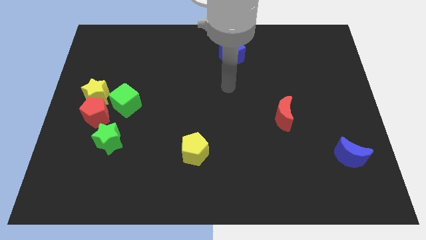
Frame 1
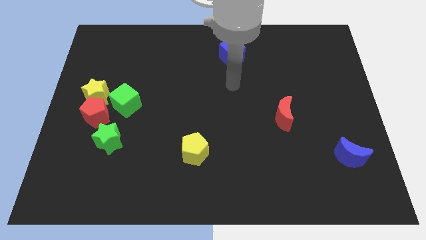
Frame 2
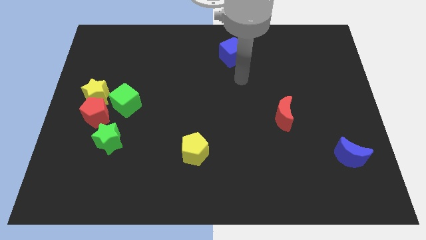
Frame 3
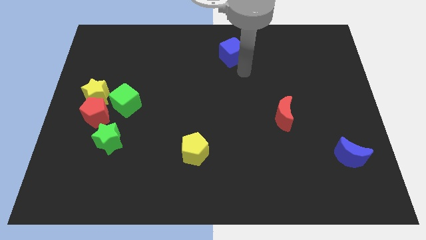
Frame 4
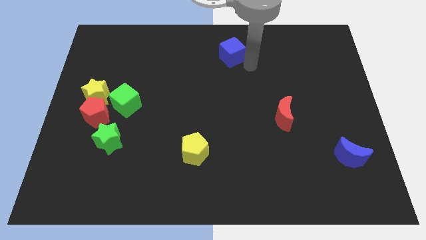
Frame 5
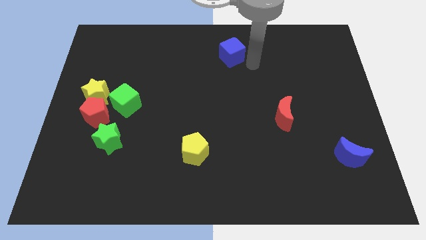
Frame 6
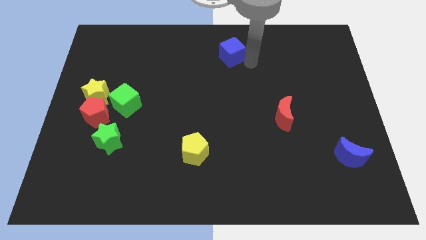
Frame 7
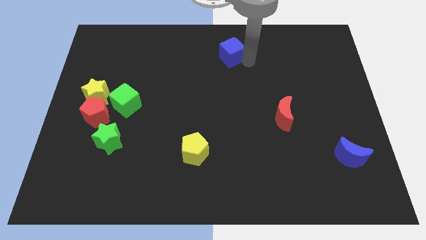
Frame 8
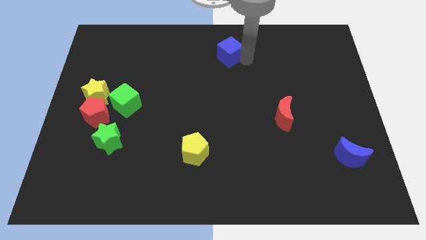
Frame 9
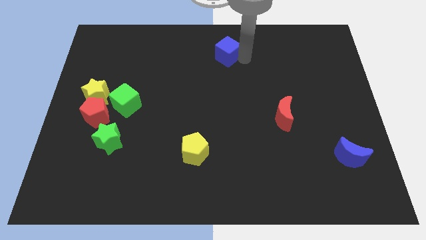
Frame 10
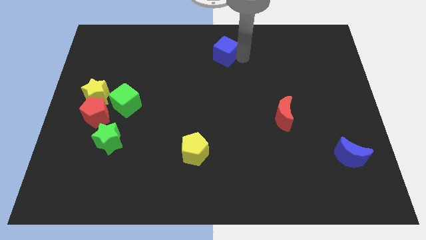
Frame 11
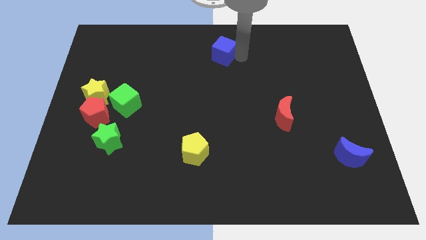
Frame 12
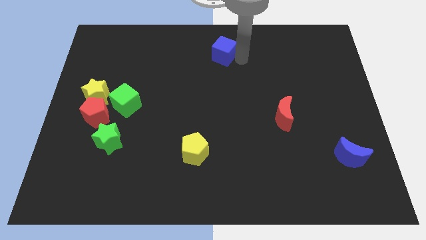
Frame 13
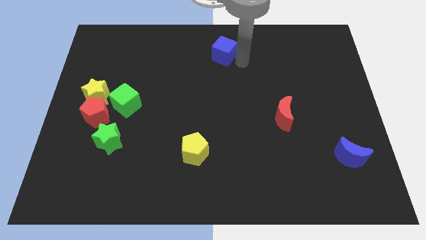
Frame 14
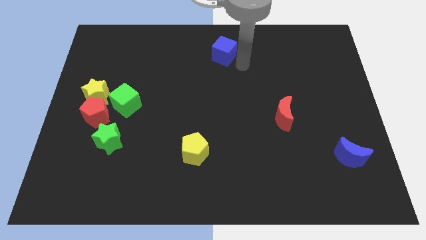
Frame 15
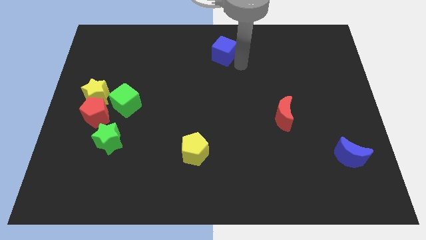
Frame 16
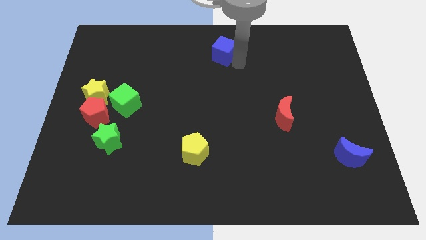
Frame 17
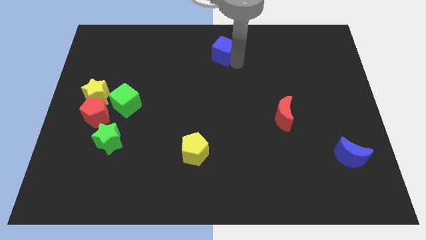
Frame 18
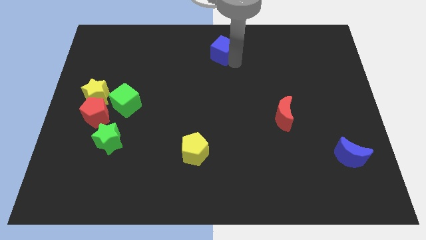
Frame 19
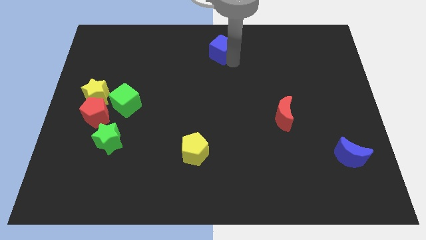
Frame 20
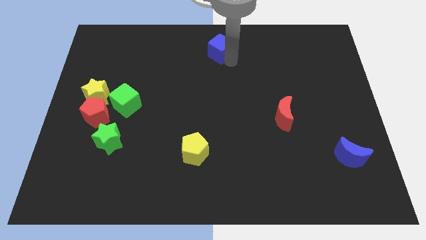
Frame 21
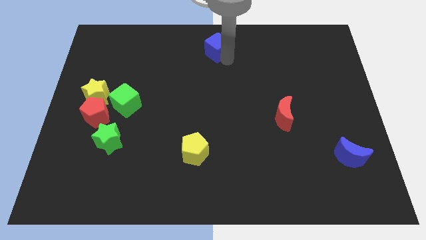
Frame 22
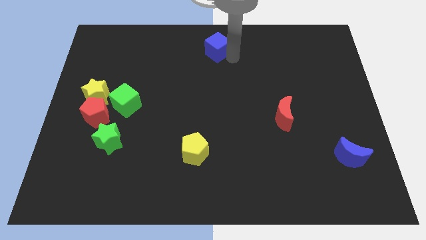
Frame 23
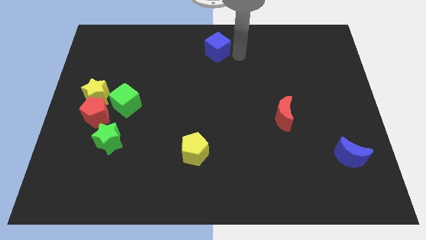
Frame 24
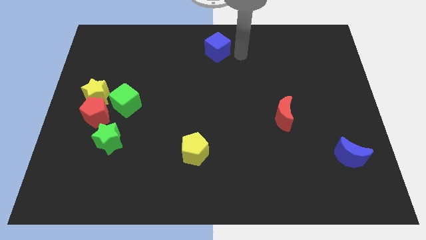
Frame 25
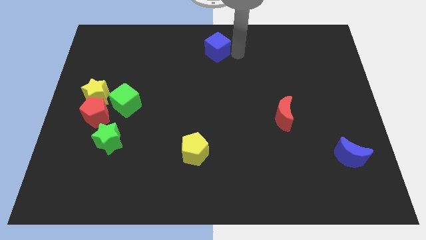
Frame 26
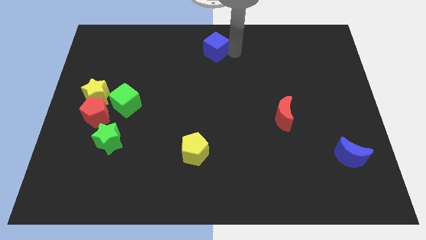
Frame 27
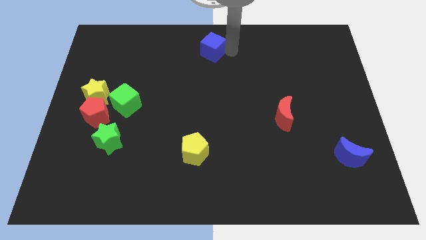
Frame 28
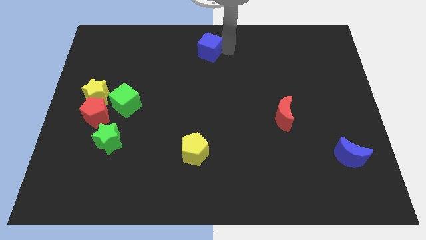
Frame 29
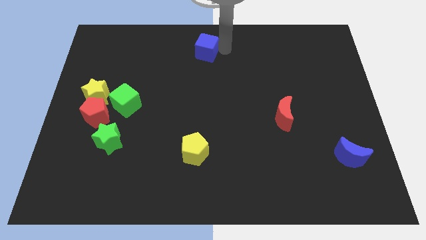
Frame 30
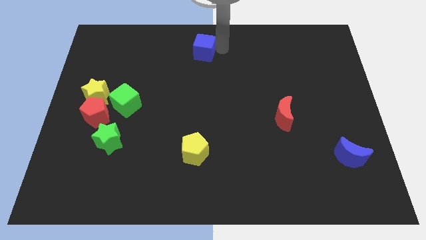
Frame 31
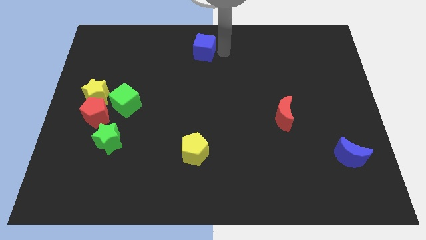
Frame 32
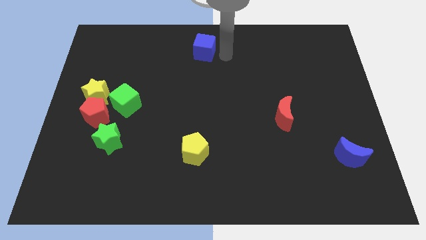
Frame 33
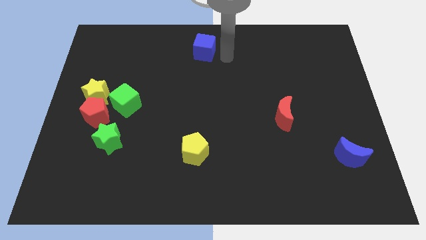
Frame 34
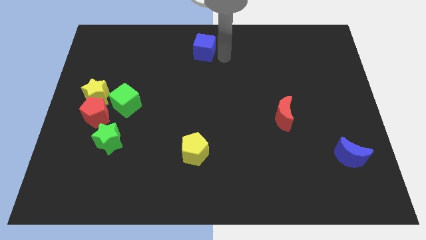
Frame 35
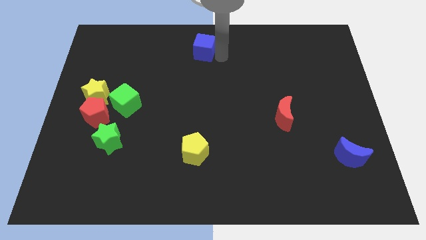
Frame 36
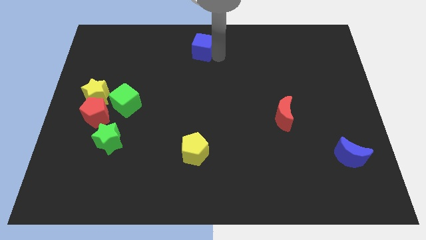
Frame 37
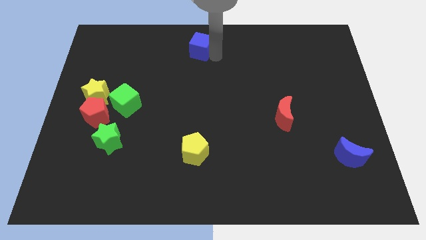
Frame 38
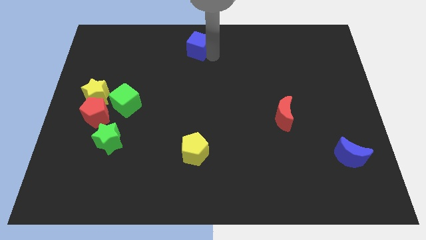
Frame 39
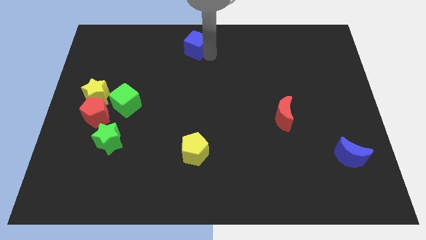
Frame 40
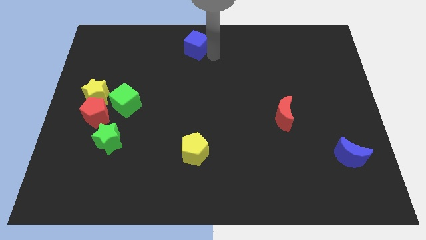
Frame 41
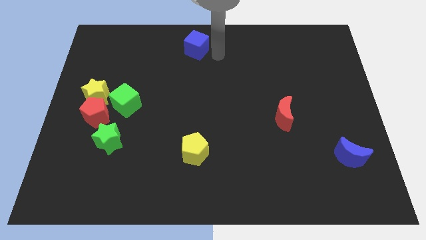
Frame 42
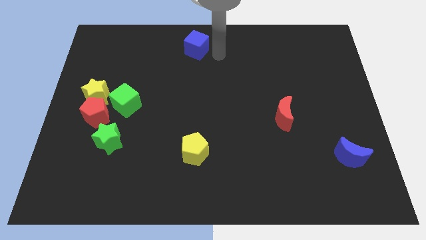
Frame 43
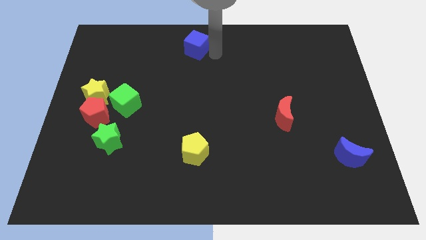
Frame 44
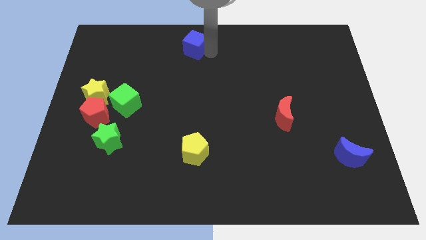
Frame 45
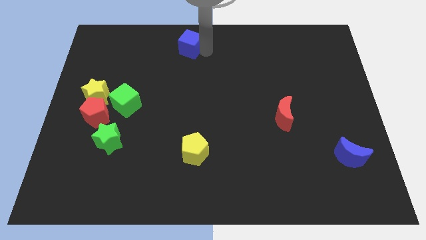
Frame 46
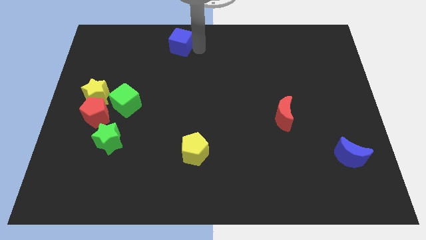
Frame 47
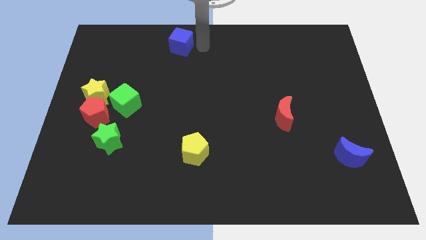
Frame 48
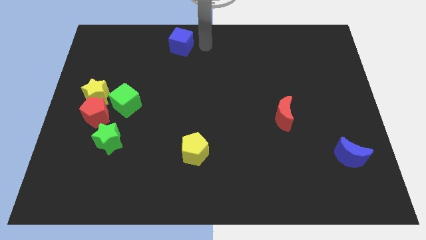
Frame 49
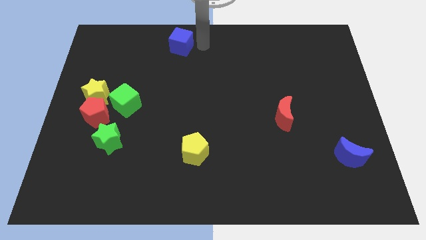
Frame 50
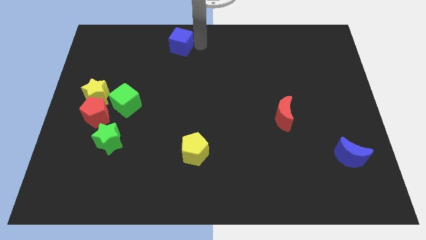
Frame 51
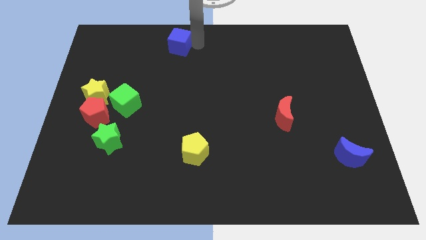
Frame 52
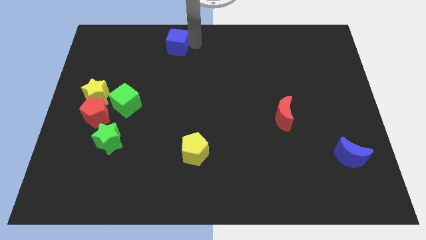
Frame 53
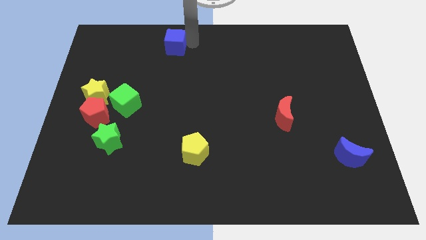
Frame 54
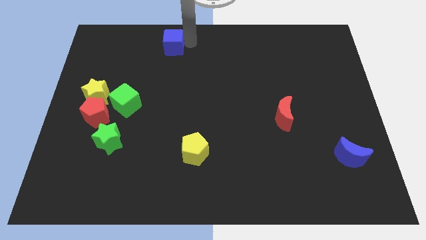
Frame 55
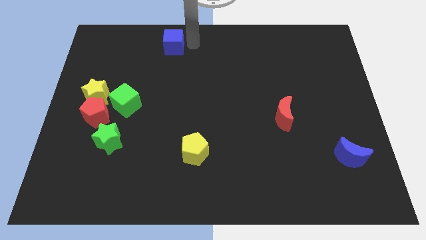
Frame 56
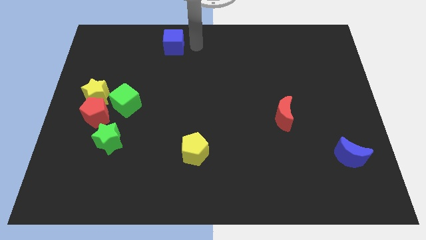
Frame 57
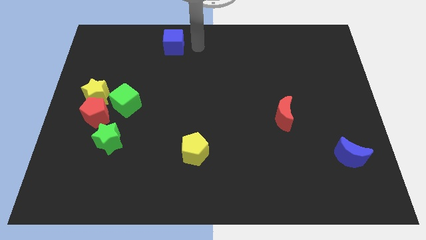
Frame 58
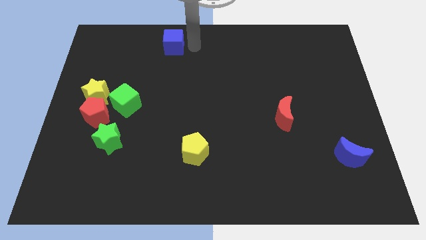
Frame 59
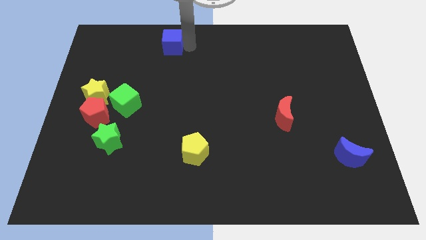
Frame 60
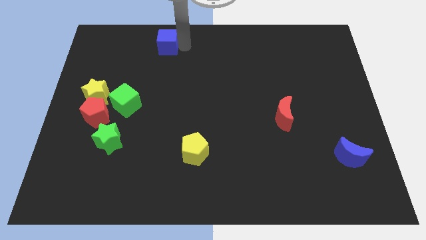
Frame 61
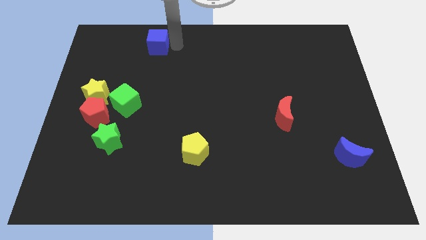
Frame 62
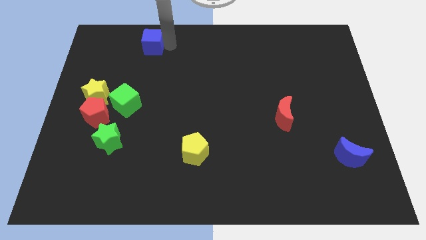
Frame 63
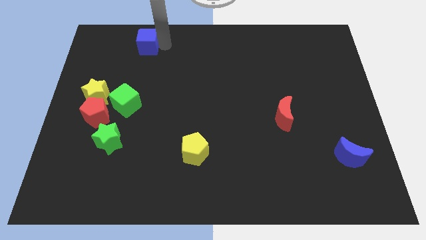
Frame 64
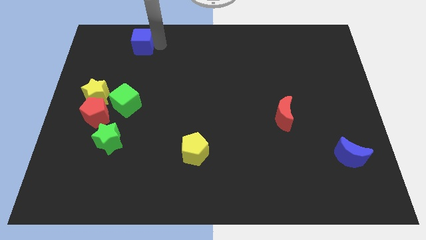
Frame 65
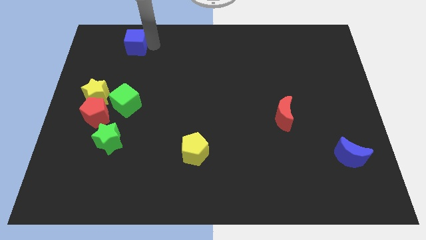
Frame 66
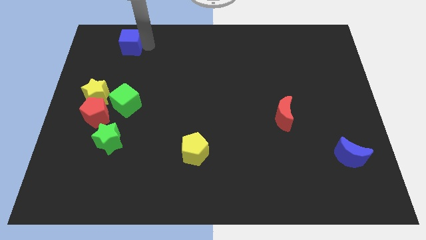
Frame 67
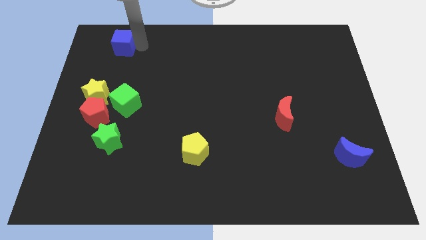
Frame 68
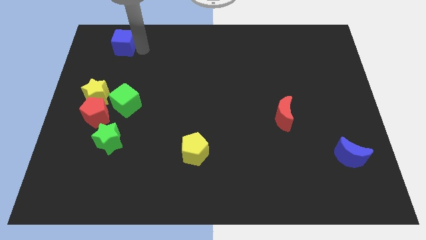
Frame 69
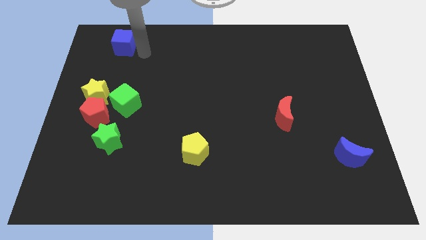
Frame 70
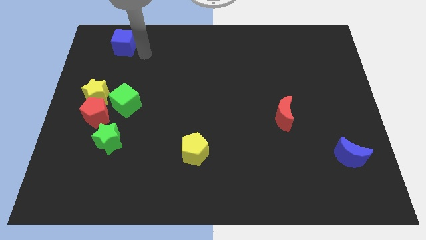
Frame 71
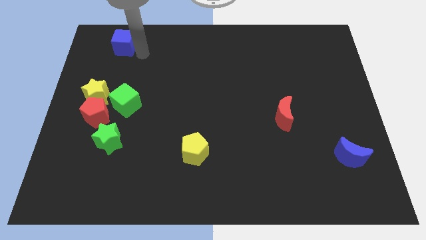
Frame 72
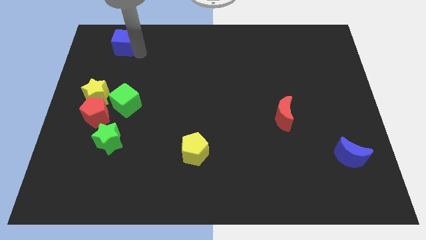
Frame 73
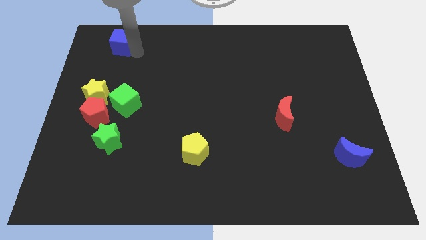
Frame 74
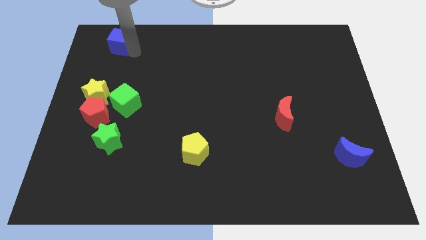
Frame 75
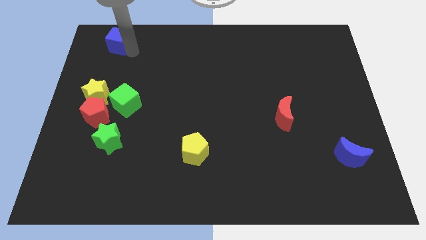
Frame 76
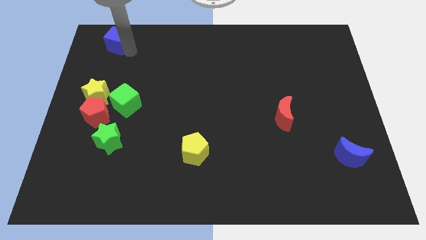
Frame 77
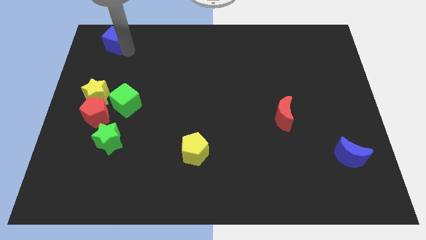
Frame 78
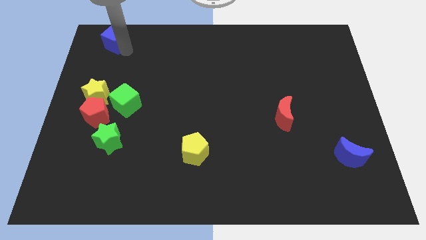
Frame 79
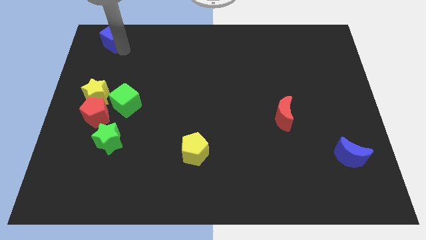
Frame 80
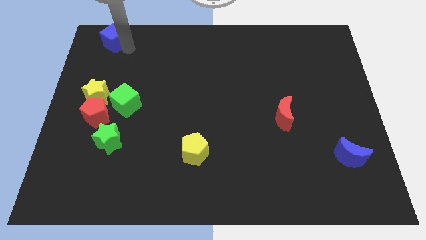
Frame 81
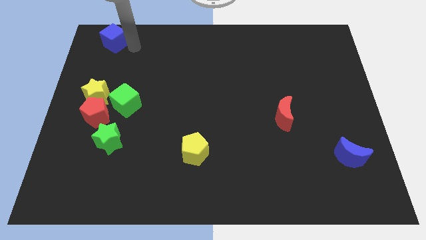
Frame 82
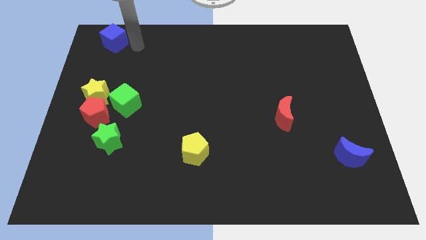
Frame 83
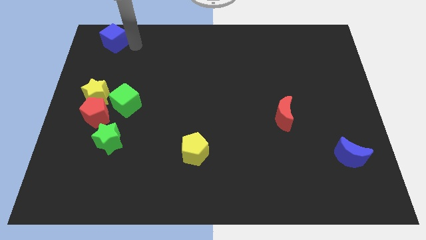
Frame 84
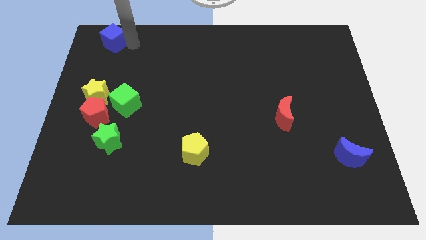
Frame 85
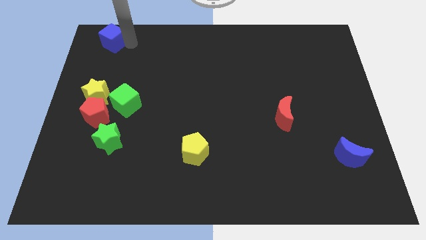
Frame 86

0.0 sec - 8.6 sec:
move the blue cube to the top left of the board
